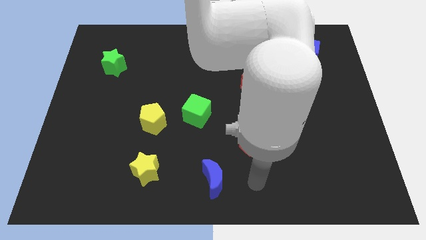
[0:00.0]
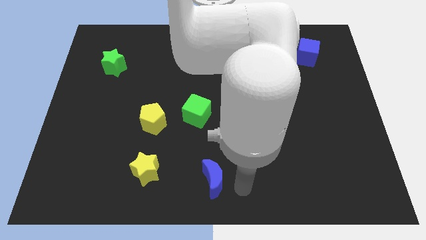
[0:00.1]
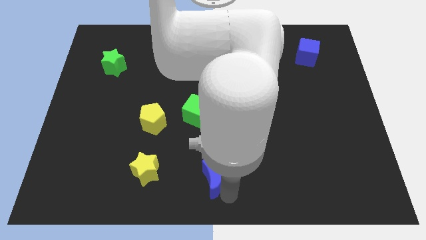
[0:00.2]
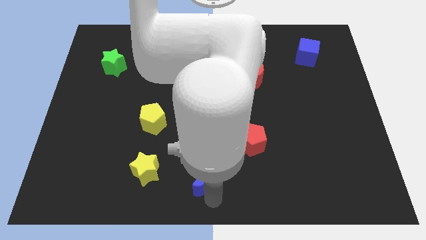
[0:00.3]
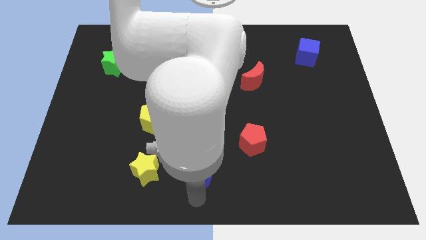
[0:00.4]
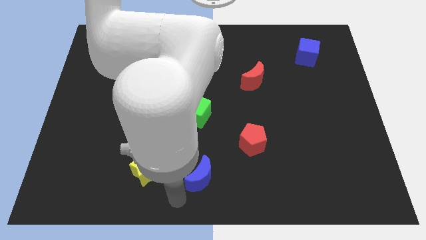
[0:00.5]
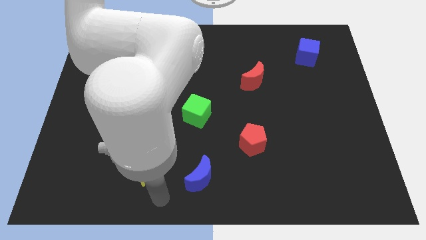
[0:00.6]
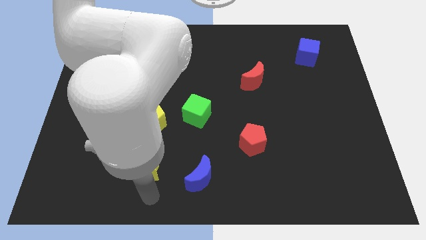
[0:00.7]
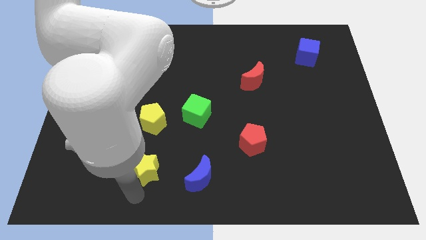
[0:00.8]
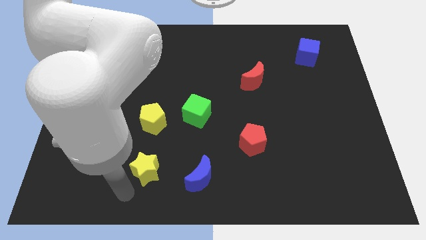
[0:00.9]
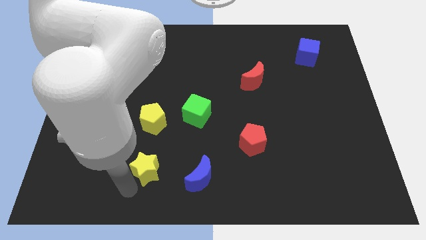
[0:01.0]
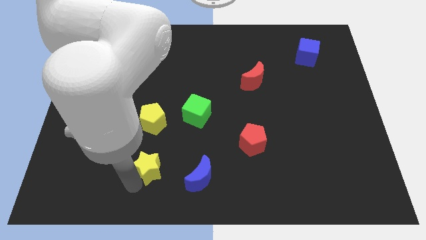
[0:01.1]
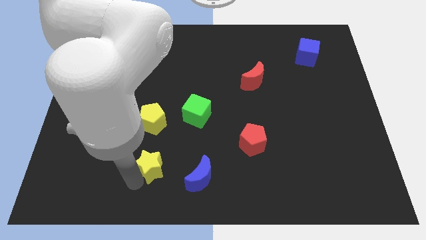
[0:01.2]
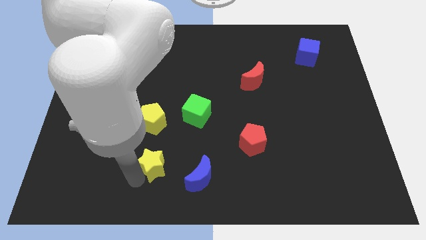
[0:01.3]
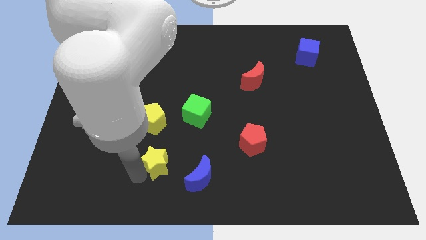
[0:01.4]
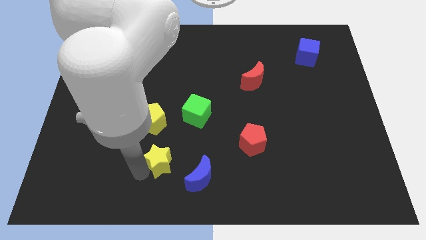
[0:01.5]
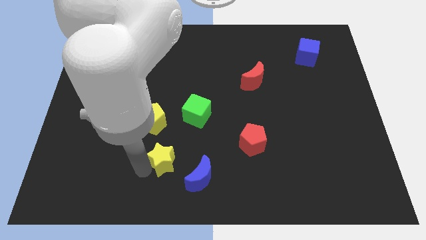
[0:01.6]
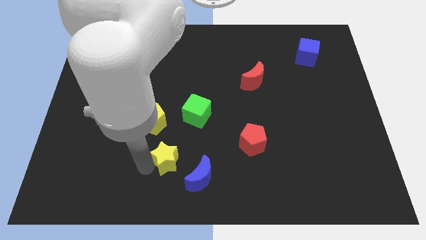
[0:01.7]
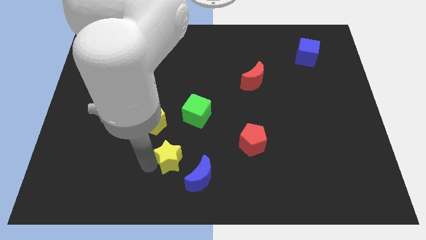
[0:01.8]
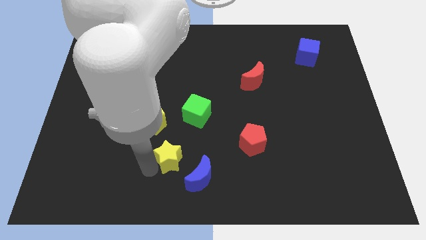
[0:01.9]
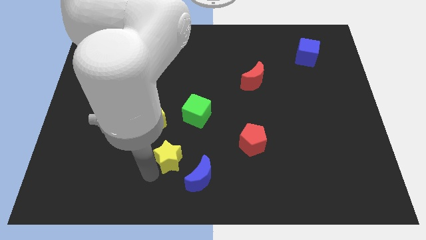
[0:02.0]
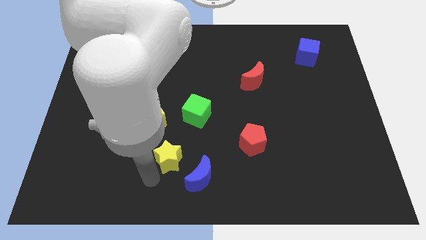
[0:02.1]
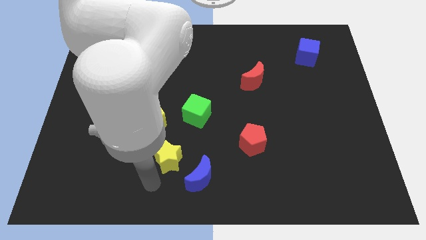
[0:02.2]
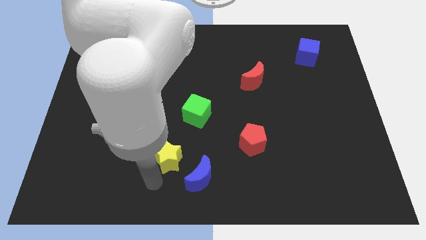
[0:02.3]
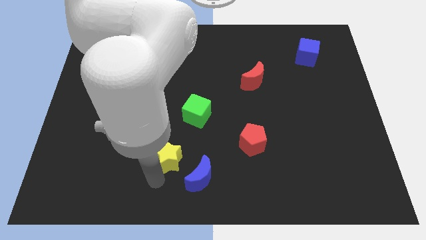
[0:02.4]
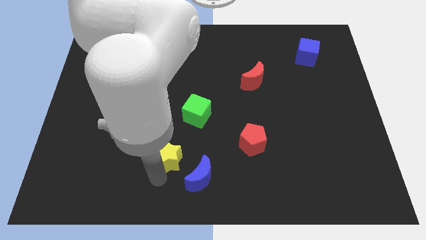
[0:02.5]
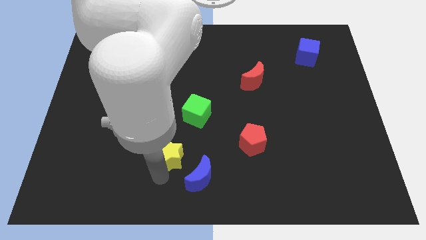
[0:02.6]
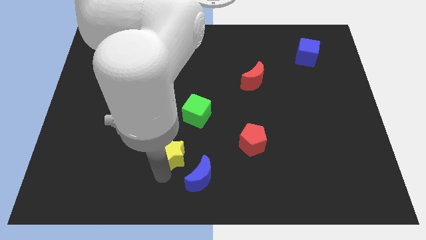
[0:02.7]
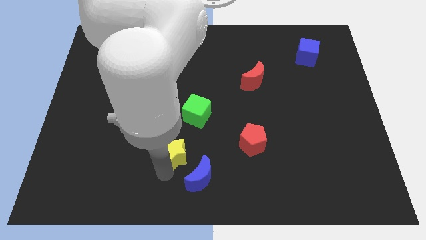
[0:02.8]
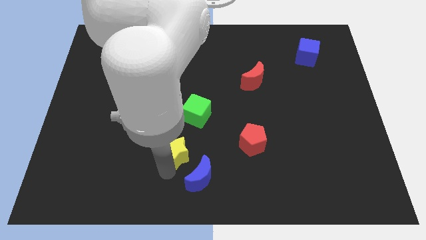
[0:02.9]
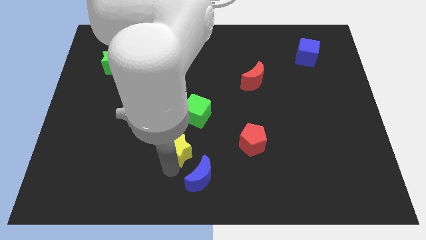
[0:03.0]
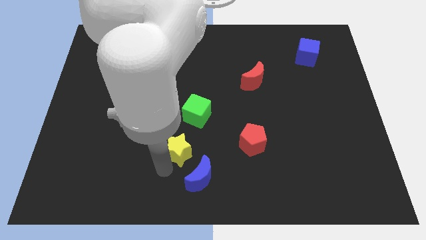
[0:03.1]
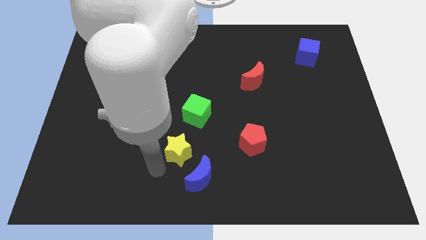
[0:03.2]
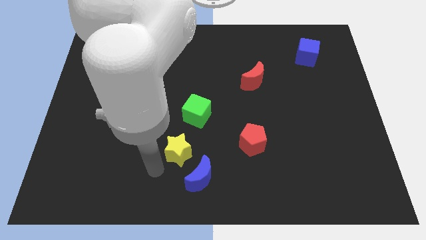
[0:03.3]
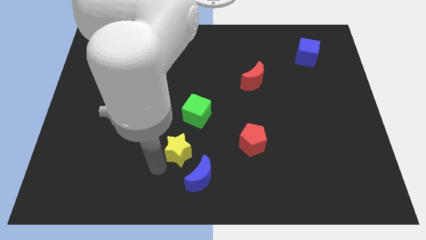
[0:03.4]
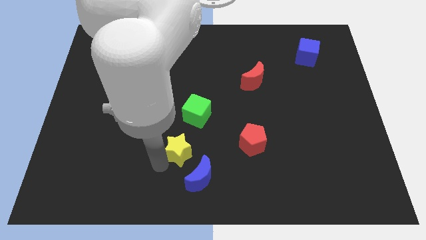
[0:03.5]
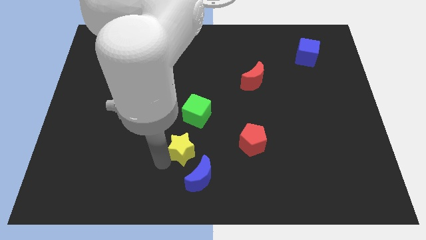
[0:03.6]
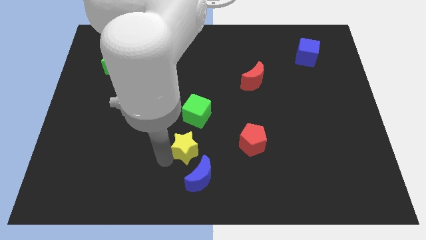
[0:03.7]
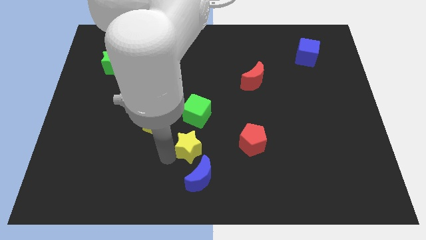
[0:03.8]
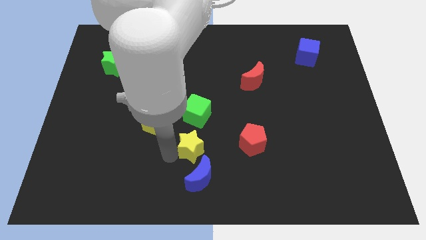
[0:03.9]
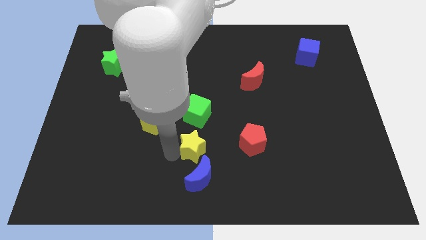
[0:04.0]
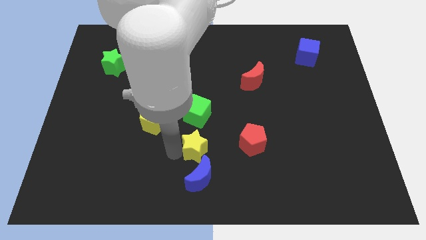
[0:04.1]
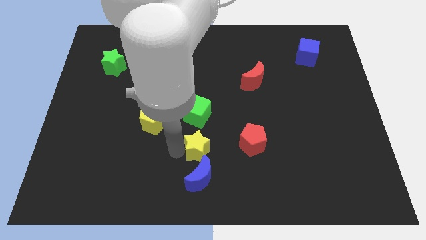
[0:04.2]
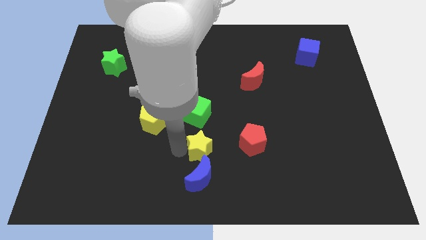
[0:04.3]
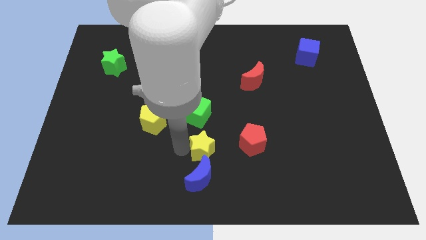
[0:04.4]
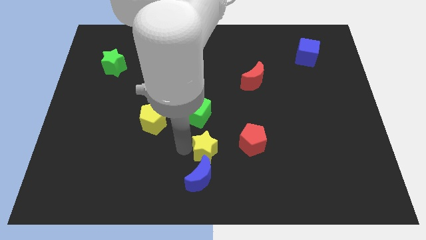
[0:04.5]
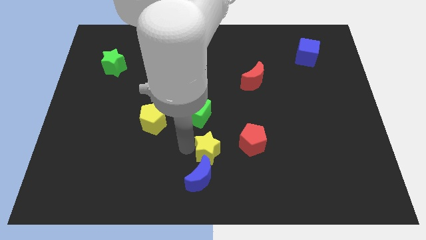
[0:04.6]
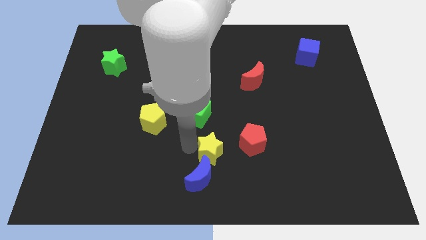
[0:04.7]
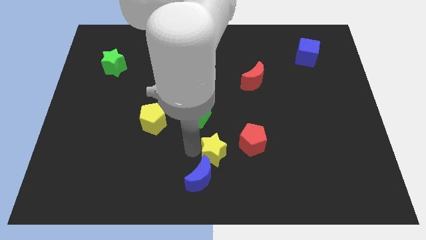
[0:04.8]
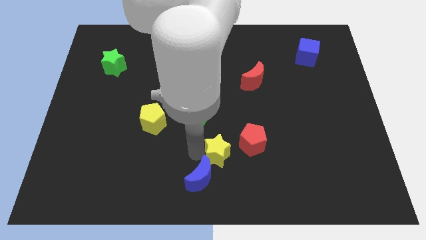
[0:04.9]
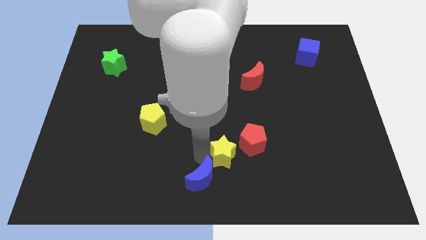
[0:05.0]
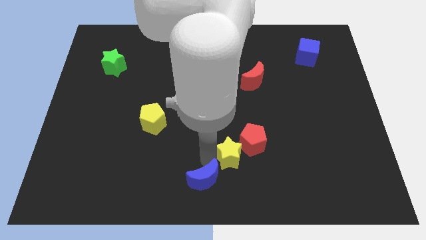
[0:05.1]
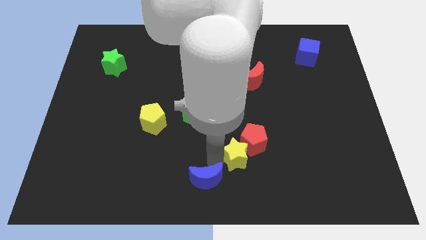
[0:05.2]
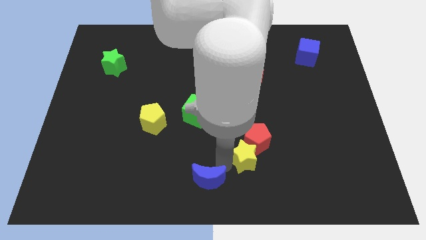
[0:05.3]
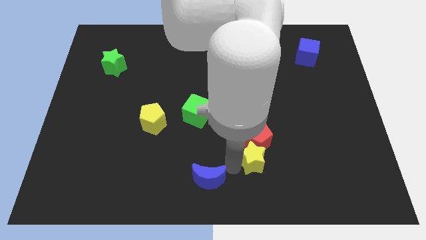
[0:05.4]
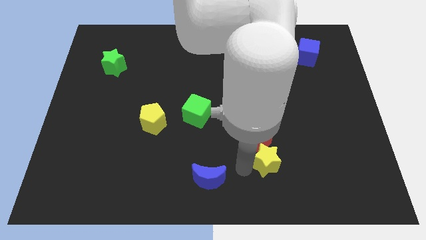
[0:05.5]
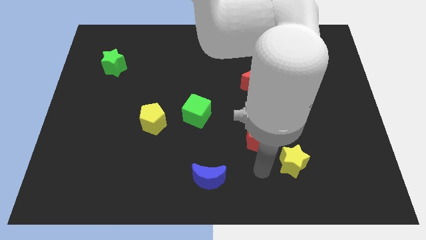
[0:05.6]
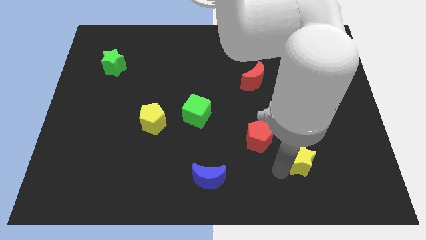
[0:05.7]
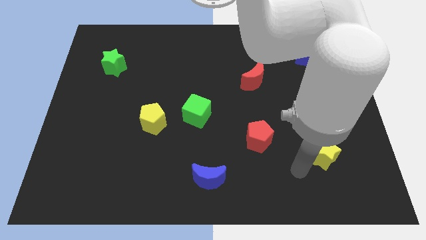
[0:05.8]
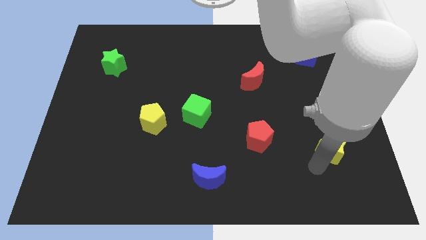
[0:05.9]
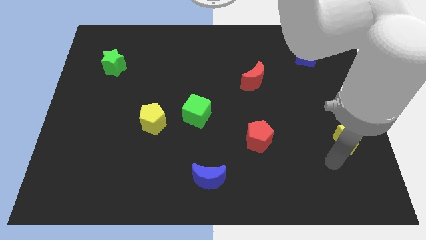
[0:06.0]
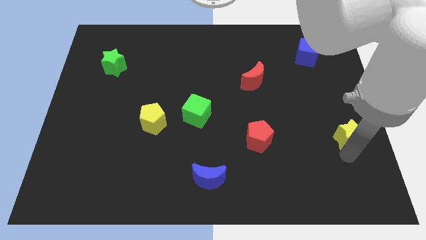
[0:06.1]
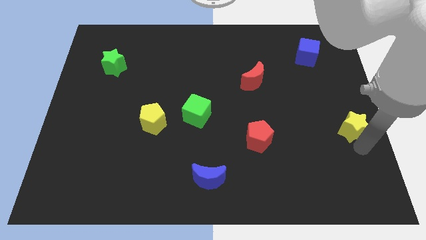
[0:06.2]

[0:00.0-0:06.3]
put the yellow star to the center right
